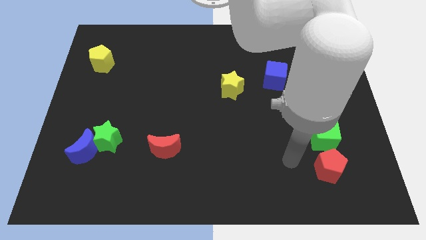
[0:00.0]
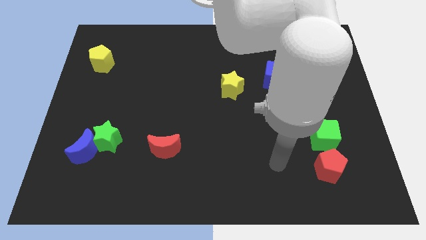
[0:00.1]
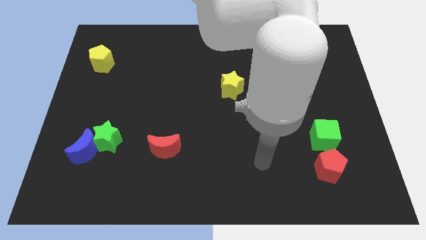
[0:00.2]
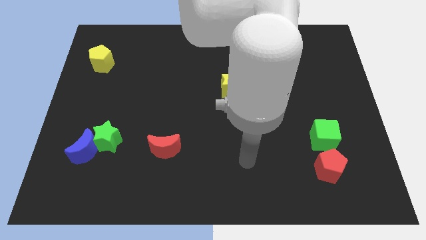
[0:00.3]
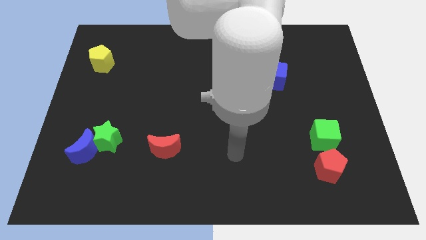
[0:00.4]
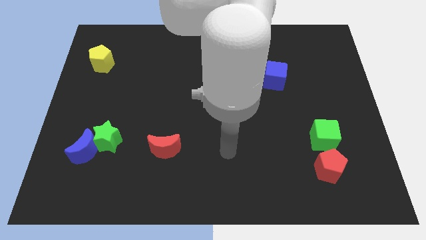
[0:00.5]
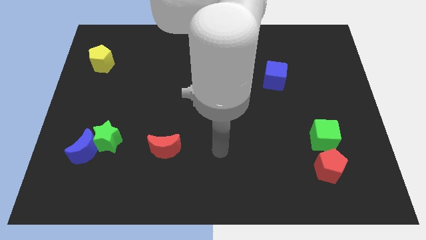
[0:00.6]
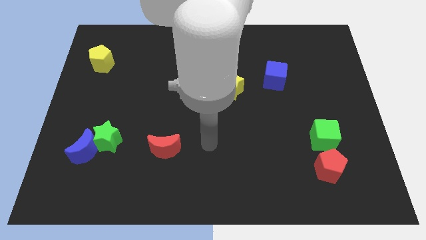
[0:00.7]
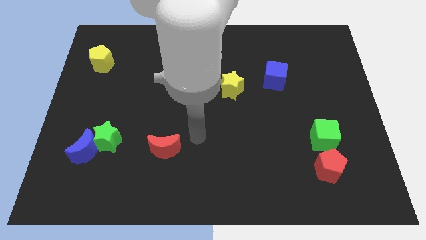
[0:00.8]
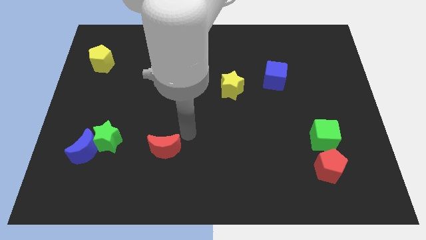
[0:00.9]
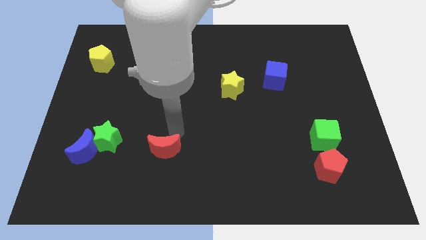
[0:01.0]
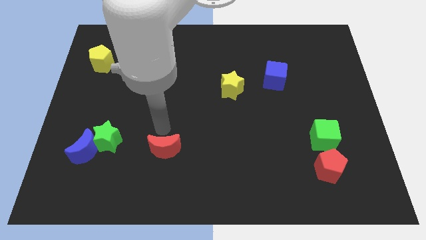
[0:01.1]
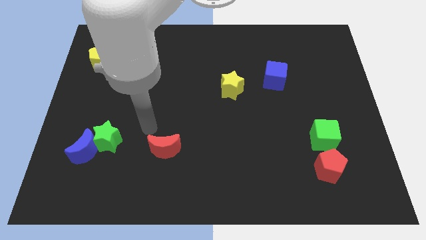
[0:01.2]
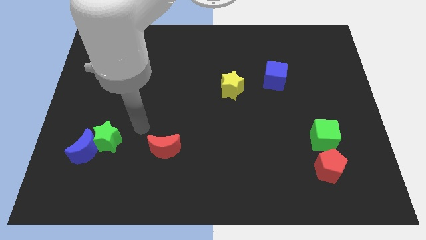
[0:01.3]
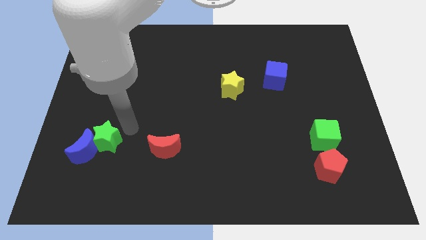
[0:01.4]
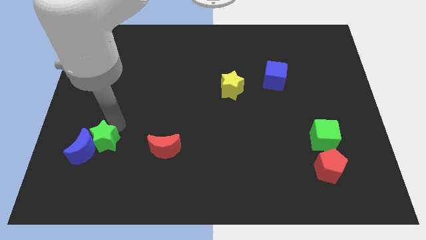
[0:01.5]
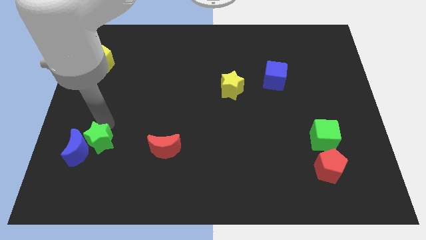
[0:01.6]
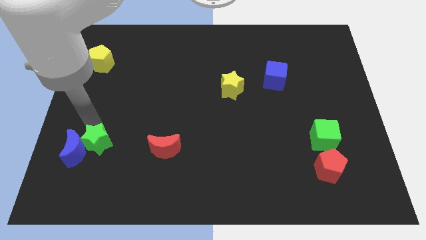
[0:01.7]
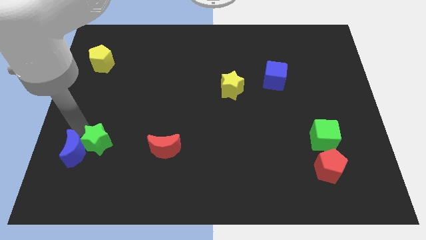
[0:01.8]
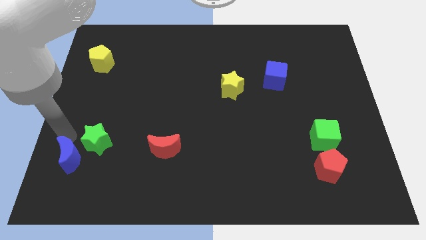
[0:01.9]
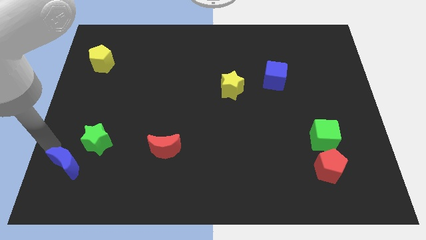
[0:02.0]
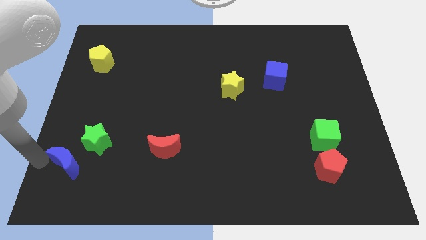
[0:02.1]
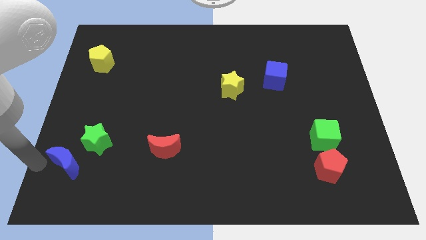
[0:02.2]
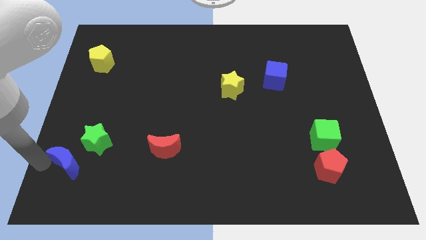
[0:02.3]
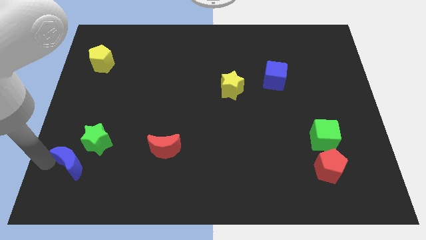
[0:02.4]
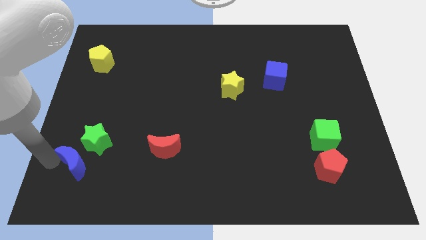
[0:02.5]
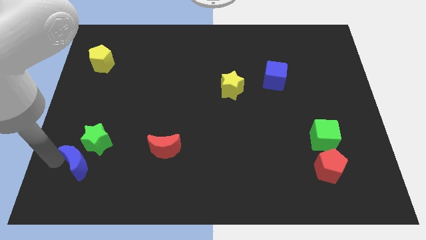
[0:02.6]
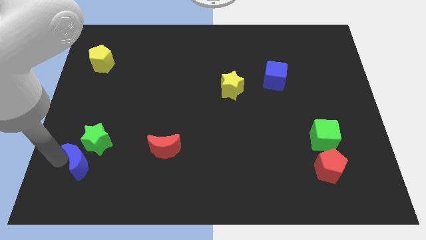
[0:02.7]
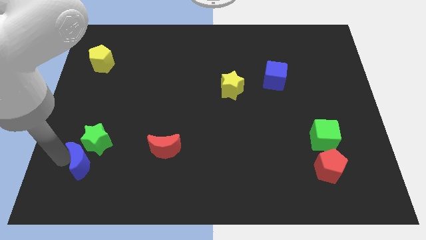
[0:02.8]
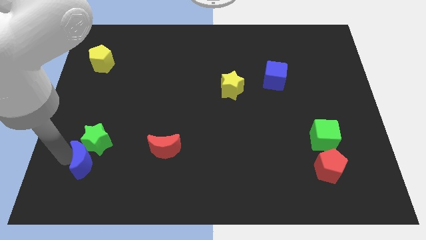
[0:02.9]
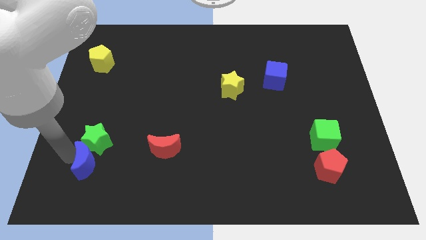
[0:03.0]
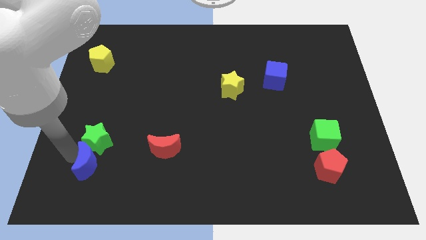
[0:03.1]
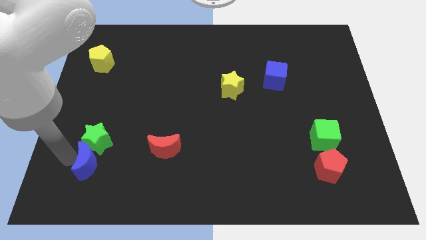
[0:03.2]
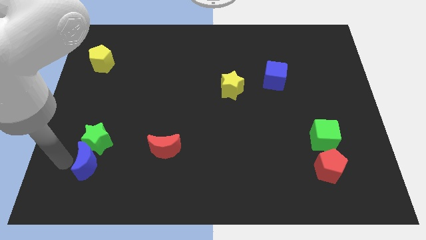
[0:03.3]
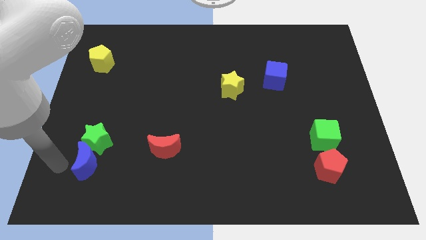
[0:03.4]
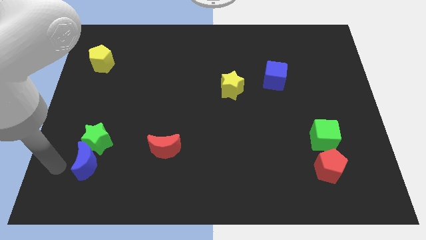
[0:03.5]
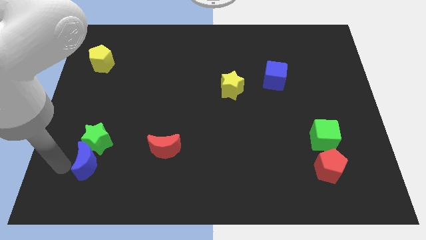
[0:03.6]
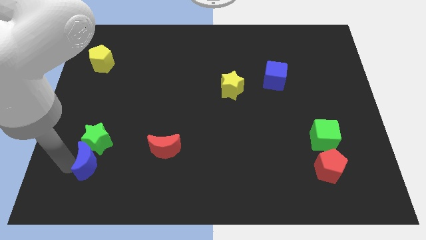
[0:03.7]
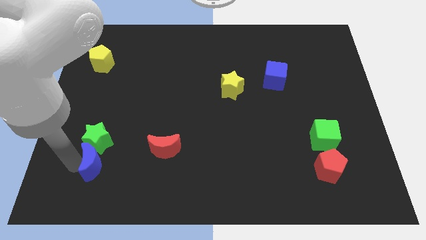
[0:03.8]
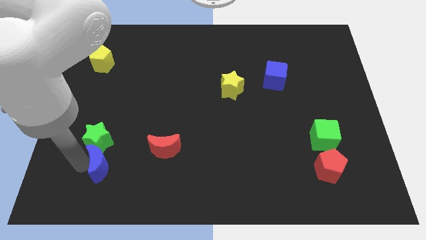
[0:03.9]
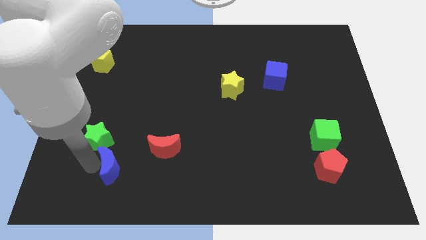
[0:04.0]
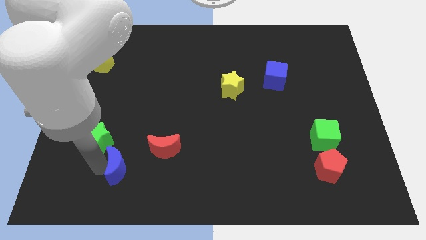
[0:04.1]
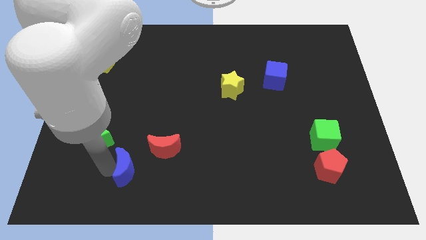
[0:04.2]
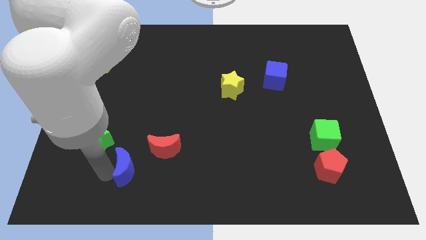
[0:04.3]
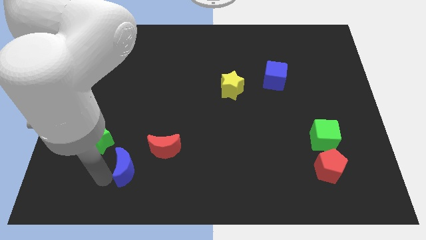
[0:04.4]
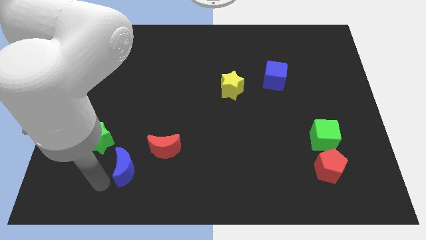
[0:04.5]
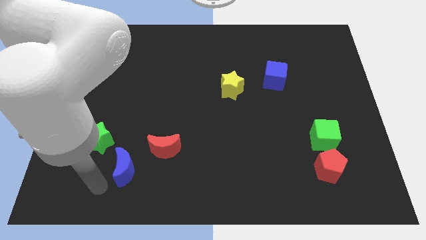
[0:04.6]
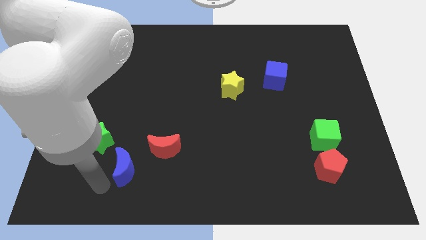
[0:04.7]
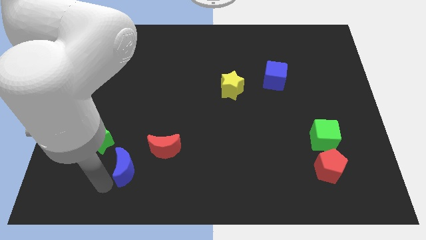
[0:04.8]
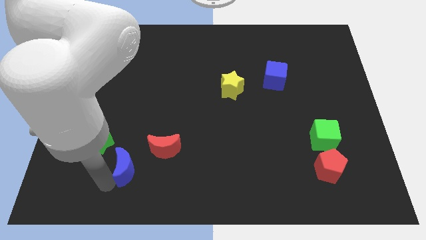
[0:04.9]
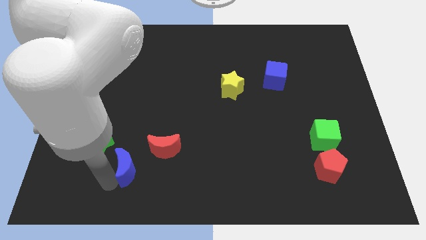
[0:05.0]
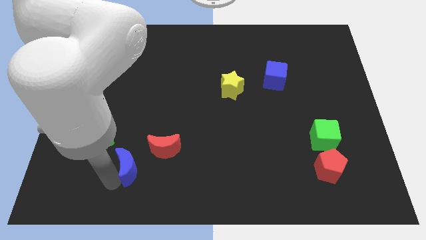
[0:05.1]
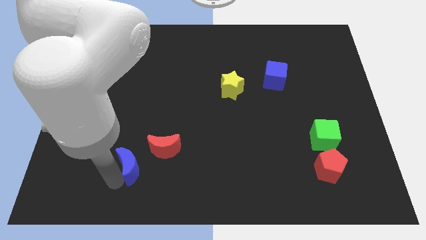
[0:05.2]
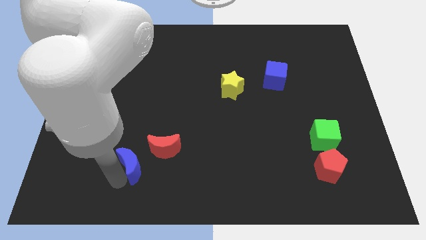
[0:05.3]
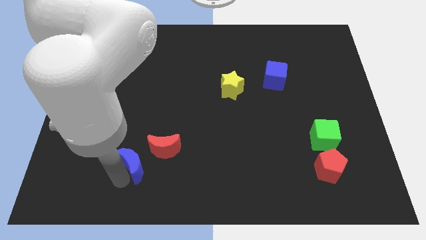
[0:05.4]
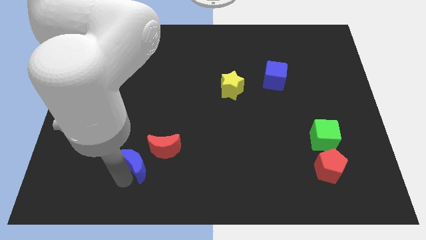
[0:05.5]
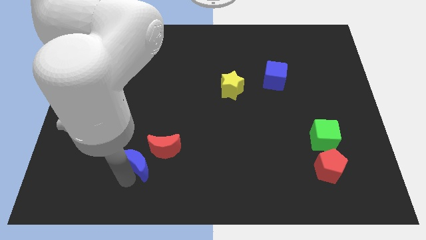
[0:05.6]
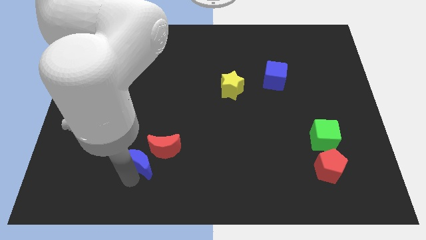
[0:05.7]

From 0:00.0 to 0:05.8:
move the blue moon next to the red moon

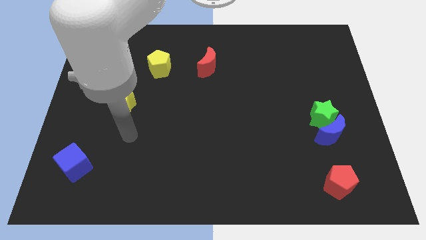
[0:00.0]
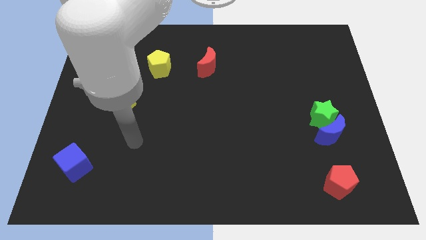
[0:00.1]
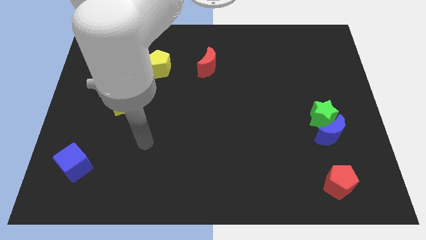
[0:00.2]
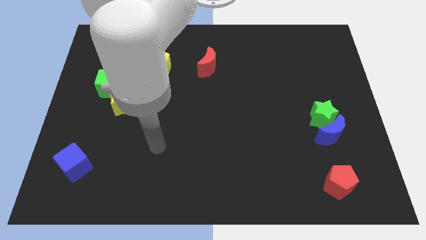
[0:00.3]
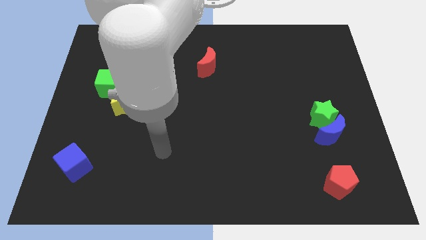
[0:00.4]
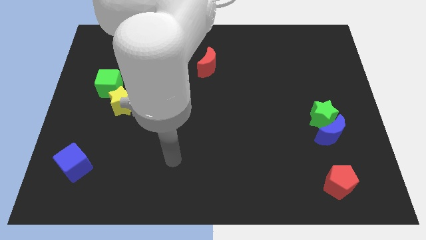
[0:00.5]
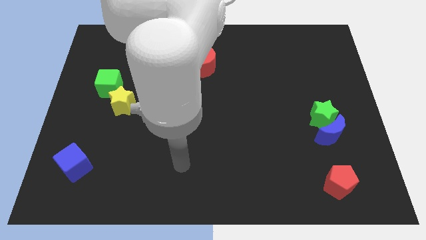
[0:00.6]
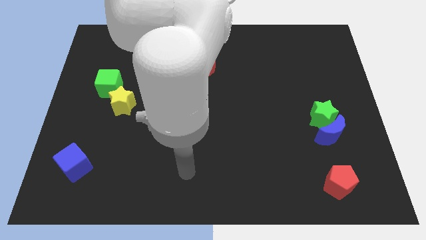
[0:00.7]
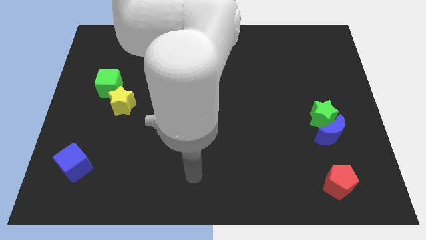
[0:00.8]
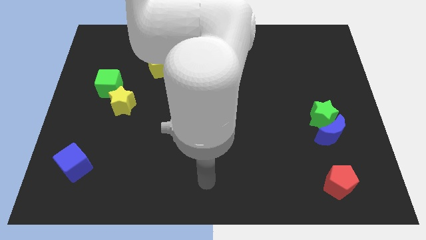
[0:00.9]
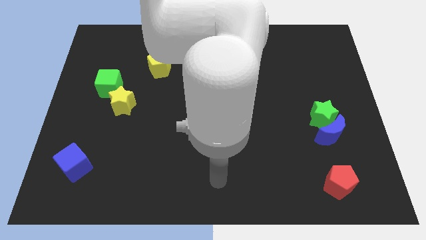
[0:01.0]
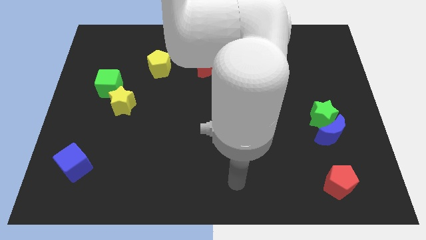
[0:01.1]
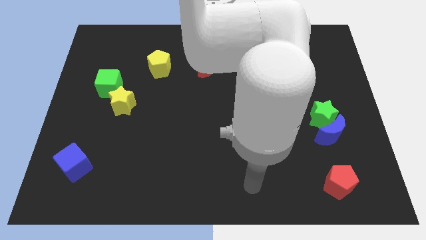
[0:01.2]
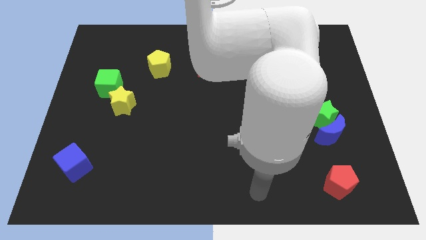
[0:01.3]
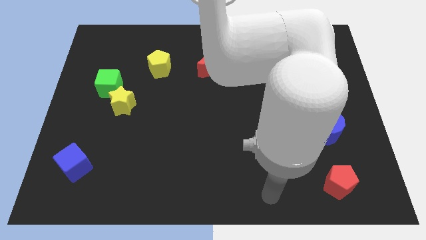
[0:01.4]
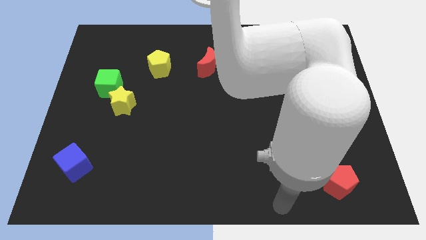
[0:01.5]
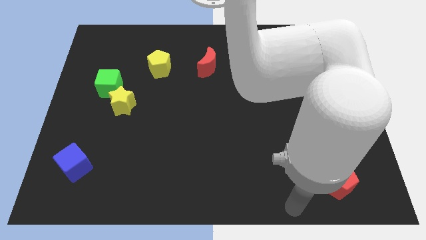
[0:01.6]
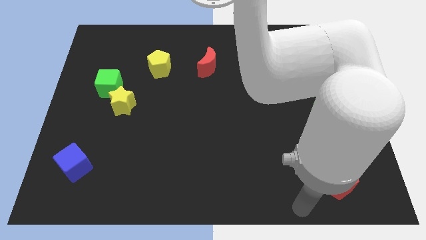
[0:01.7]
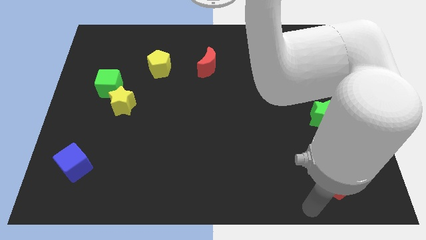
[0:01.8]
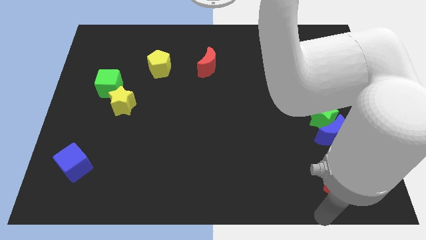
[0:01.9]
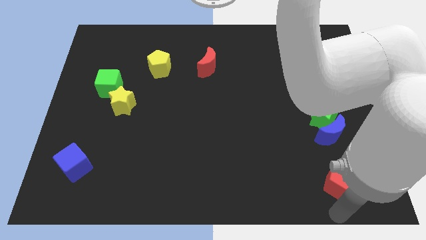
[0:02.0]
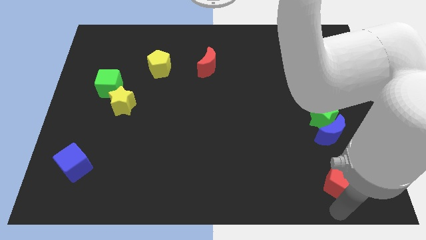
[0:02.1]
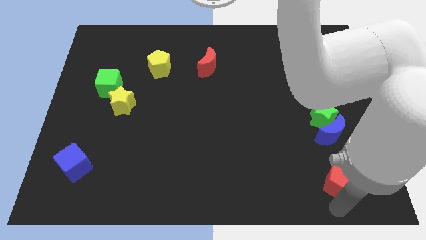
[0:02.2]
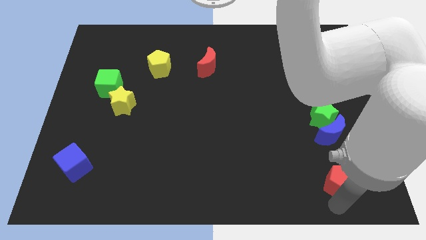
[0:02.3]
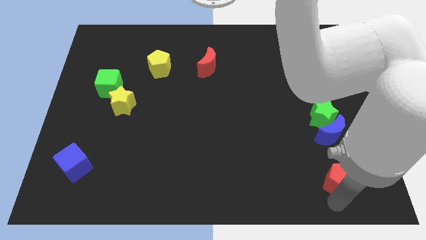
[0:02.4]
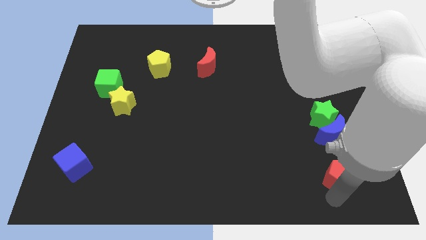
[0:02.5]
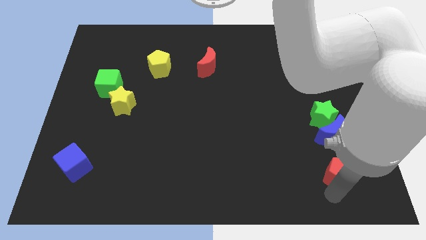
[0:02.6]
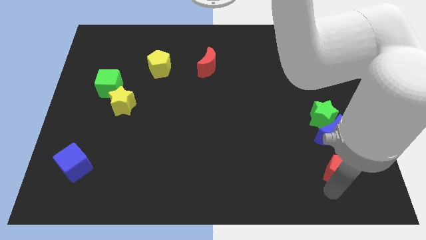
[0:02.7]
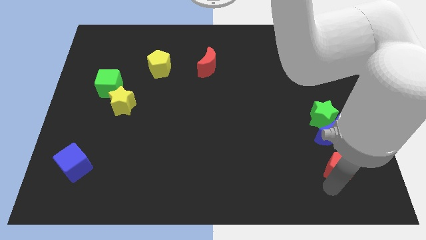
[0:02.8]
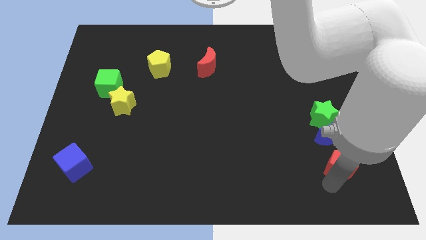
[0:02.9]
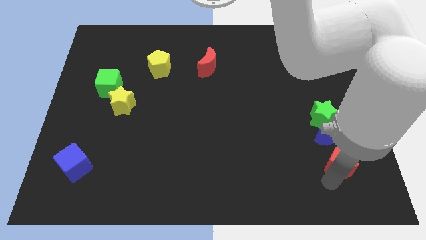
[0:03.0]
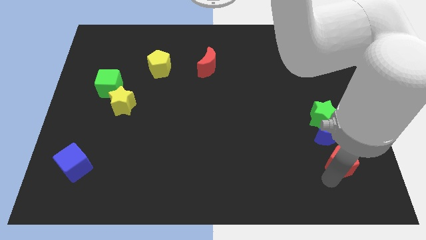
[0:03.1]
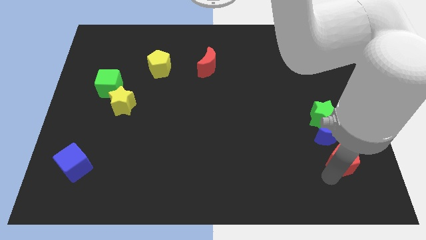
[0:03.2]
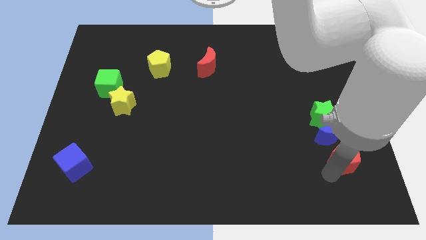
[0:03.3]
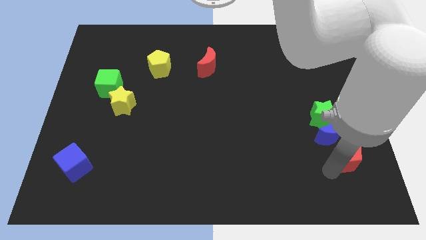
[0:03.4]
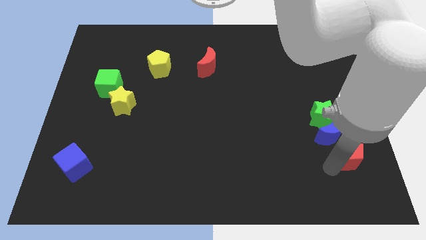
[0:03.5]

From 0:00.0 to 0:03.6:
slide the red pentagon towards the blue moon
